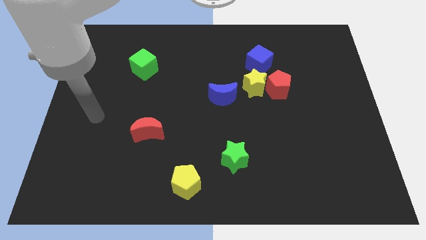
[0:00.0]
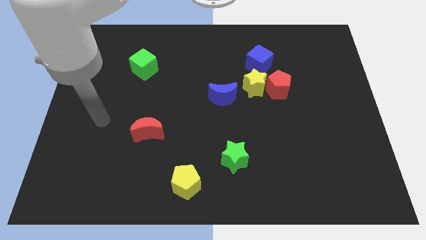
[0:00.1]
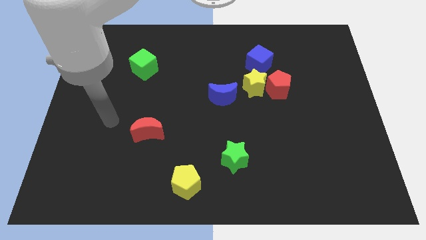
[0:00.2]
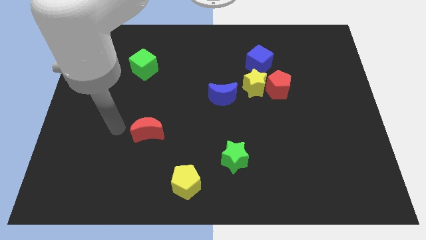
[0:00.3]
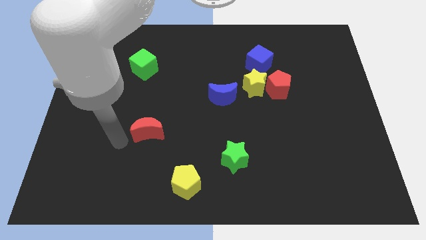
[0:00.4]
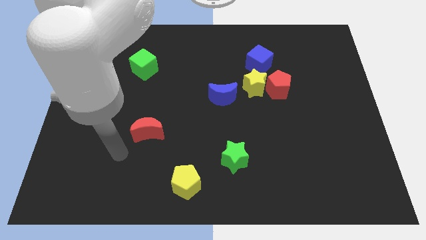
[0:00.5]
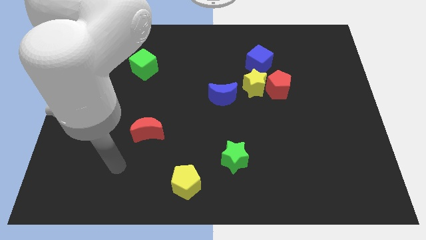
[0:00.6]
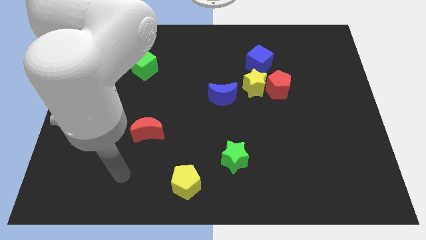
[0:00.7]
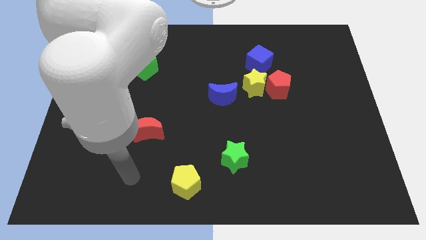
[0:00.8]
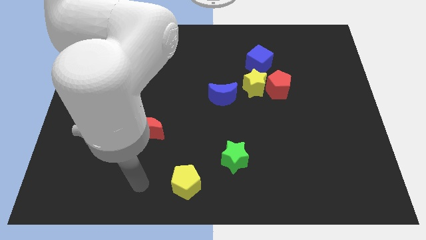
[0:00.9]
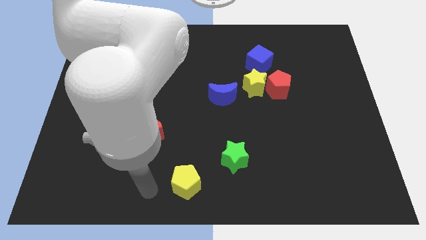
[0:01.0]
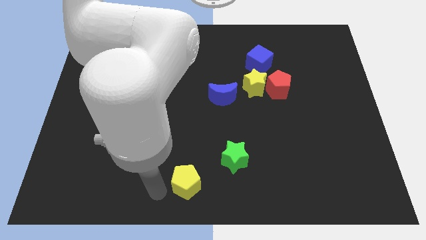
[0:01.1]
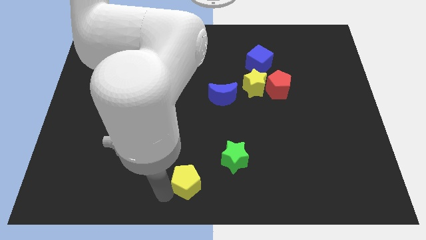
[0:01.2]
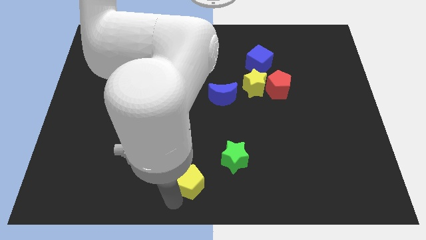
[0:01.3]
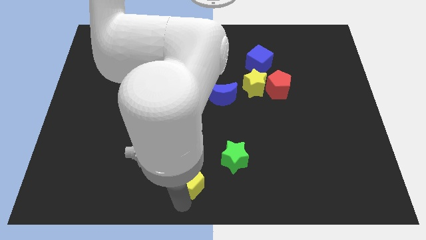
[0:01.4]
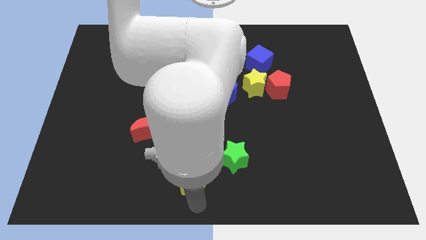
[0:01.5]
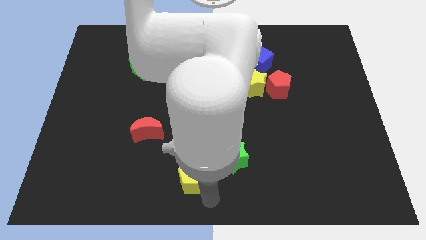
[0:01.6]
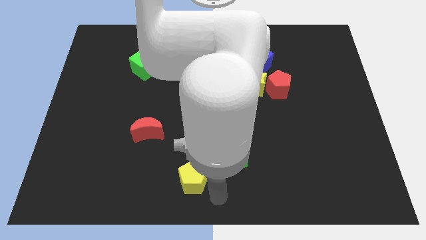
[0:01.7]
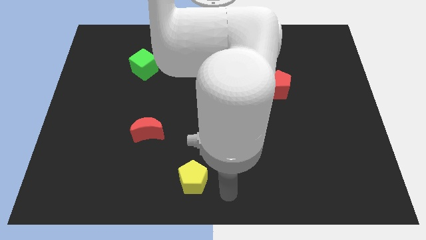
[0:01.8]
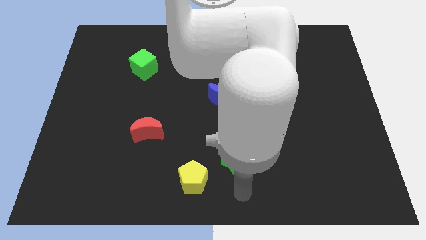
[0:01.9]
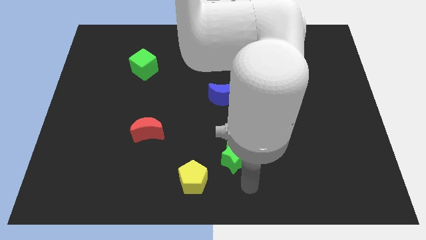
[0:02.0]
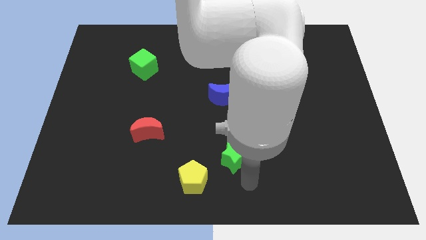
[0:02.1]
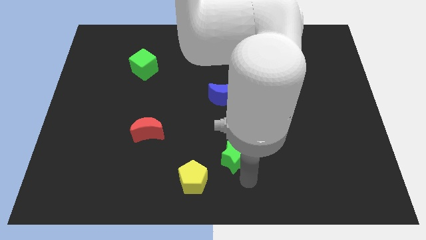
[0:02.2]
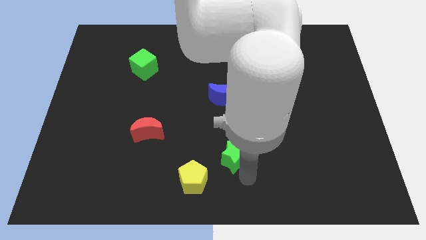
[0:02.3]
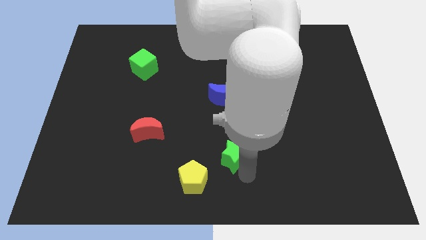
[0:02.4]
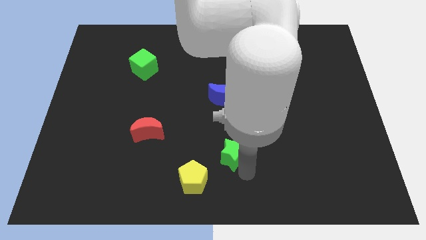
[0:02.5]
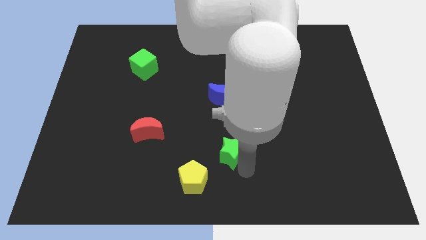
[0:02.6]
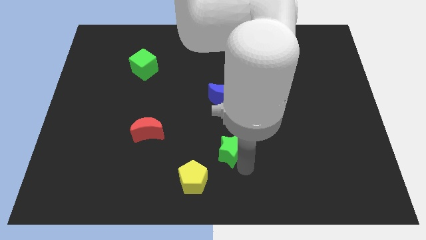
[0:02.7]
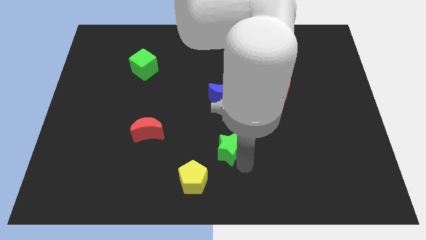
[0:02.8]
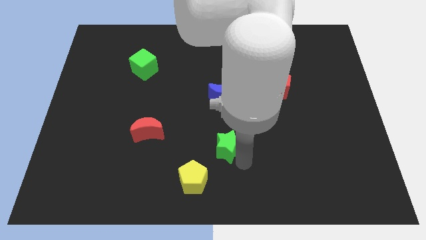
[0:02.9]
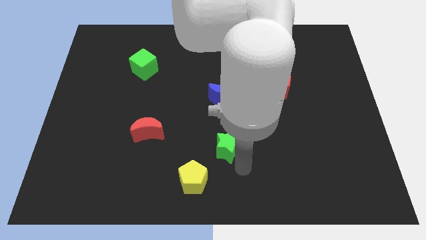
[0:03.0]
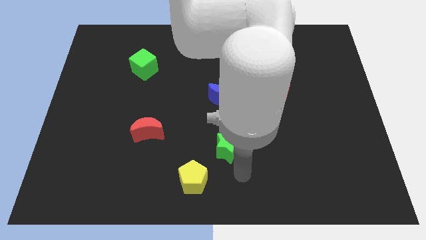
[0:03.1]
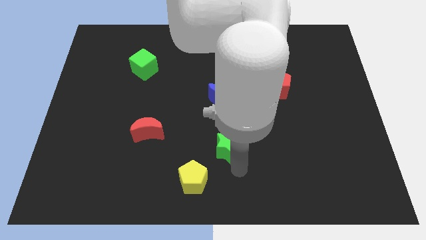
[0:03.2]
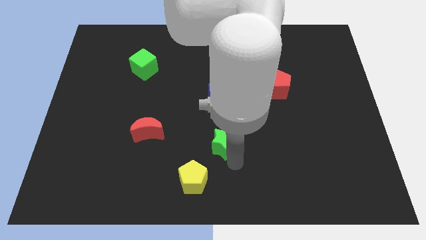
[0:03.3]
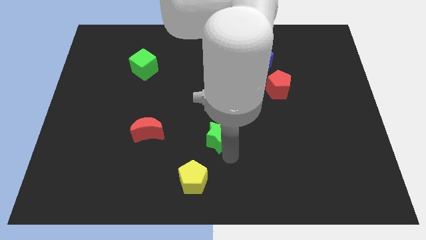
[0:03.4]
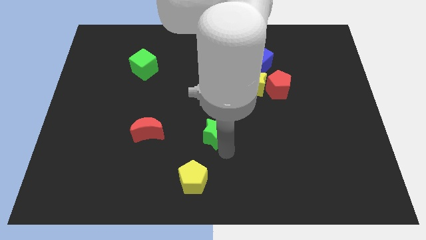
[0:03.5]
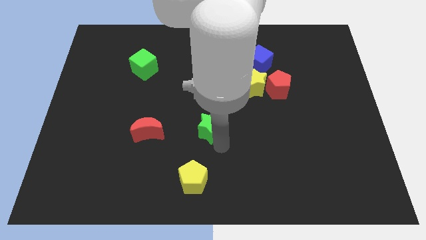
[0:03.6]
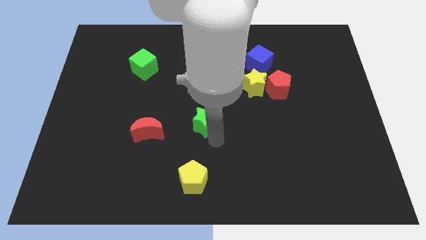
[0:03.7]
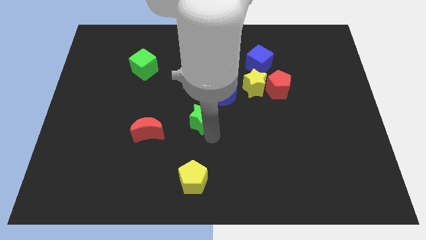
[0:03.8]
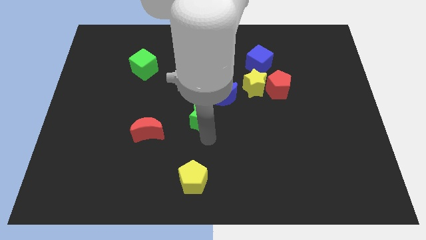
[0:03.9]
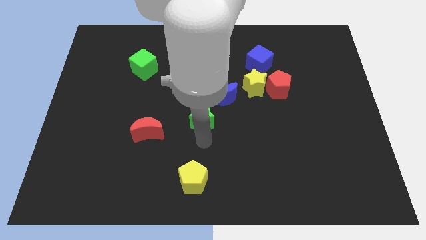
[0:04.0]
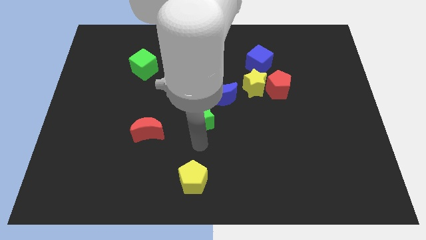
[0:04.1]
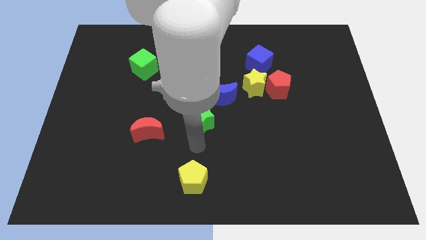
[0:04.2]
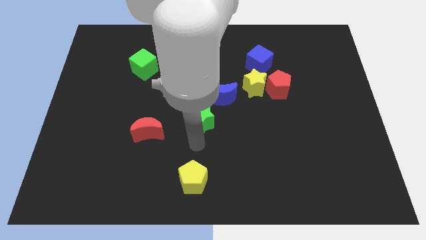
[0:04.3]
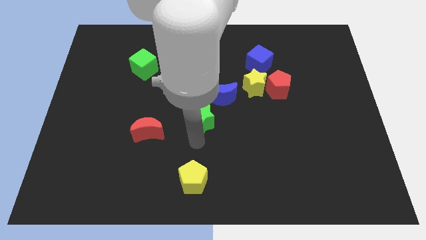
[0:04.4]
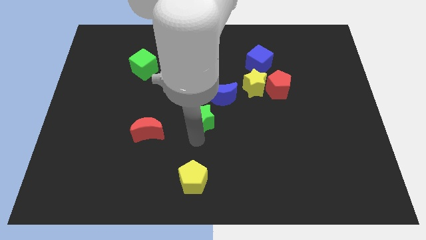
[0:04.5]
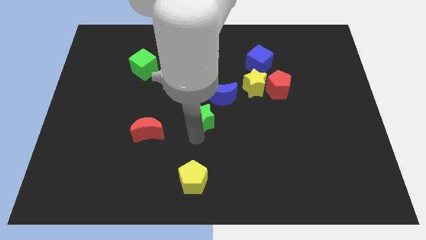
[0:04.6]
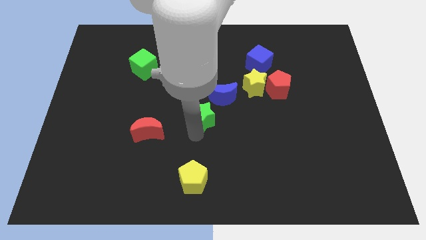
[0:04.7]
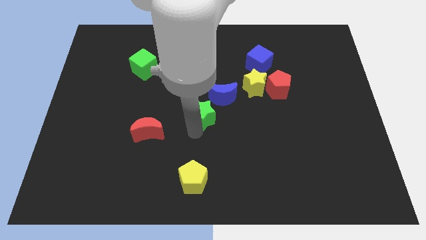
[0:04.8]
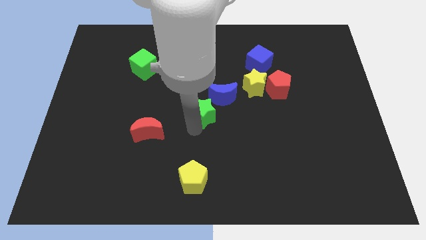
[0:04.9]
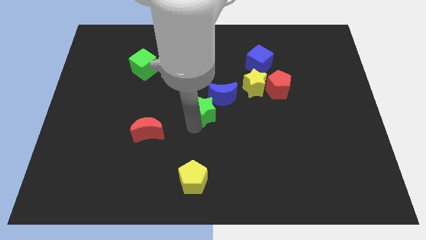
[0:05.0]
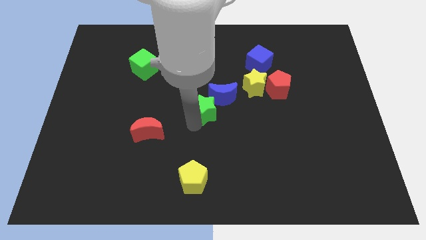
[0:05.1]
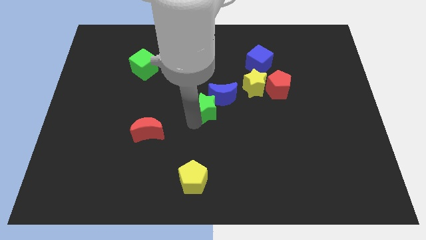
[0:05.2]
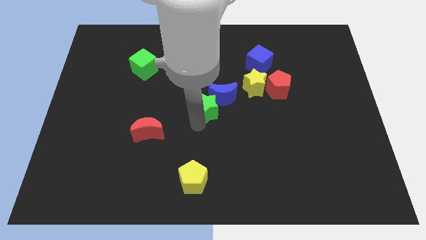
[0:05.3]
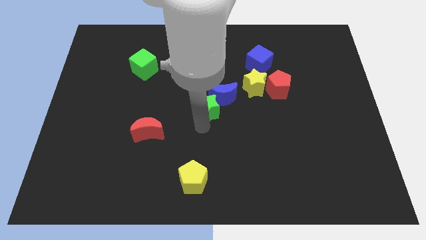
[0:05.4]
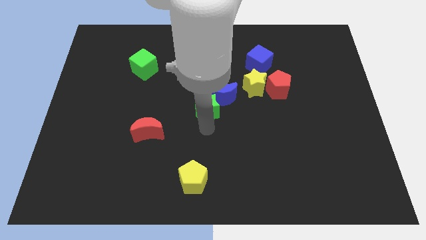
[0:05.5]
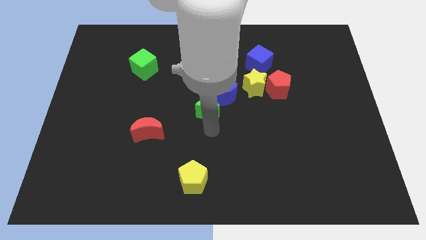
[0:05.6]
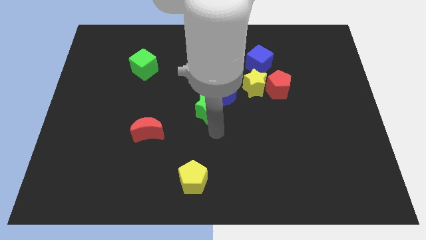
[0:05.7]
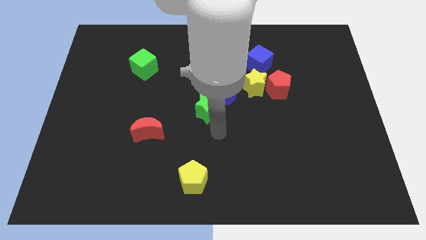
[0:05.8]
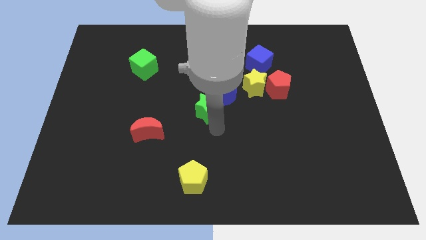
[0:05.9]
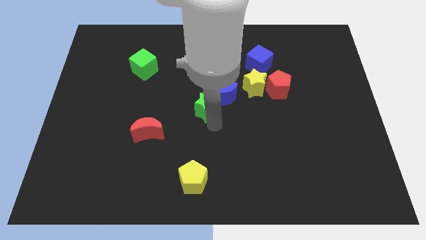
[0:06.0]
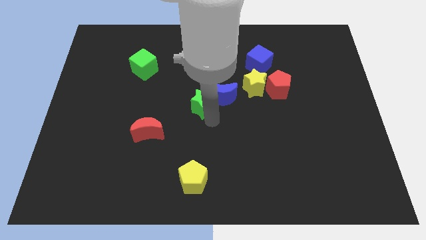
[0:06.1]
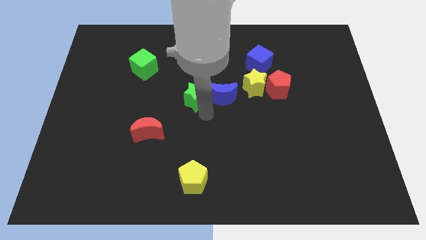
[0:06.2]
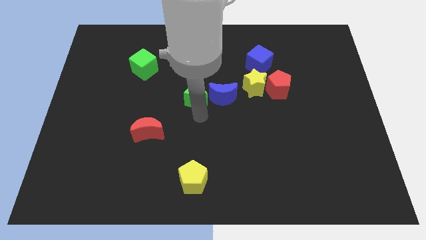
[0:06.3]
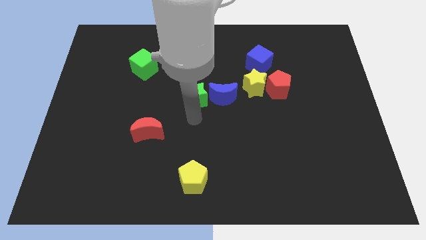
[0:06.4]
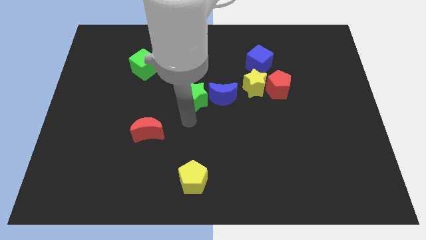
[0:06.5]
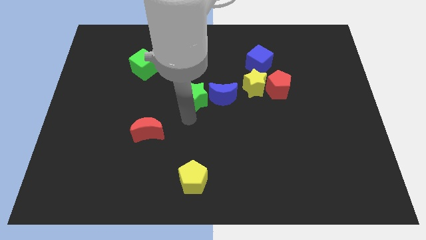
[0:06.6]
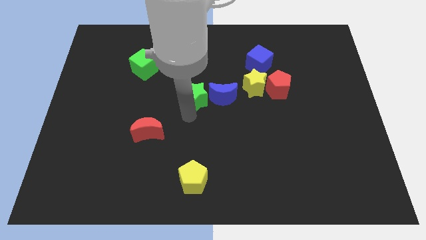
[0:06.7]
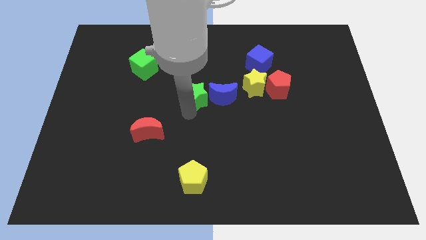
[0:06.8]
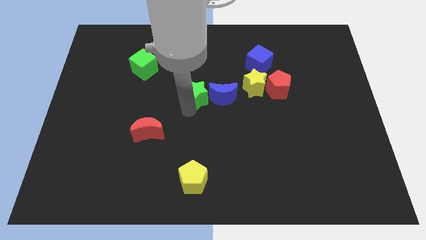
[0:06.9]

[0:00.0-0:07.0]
move the green star to the top left side of the blue moon
